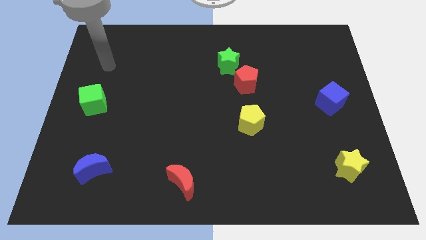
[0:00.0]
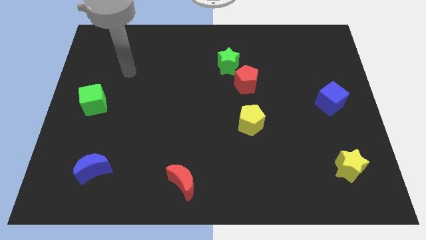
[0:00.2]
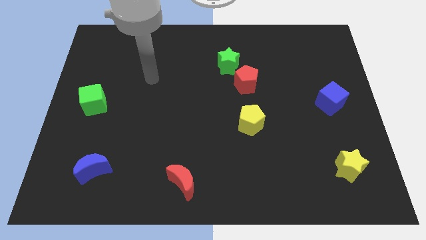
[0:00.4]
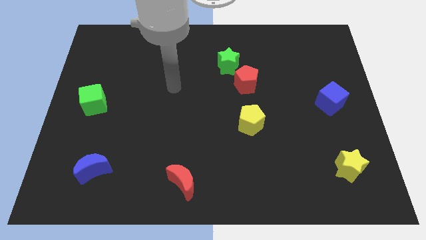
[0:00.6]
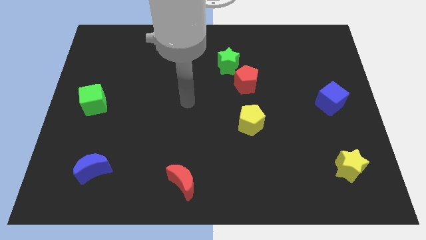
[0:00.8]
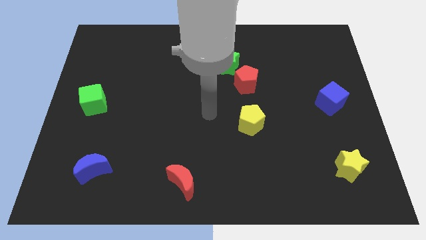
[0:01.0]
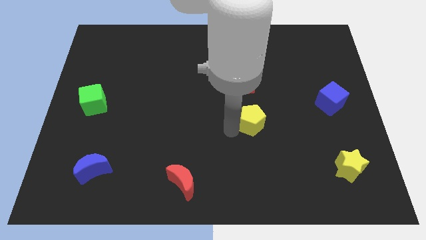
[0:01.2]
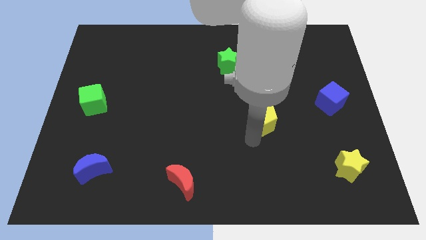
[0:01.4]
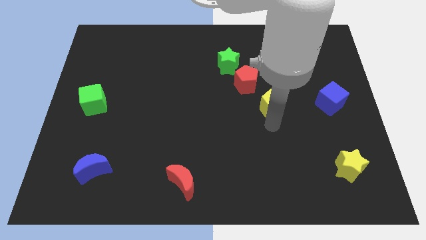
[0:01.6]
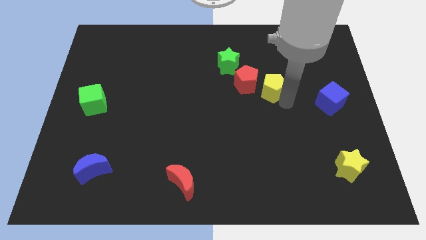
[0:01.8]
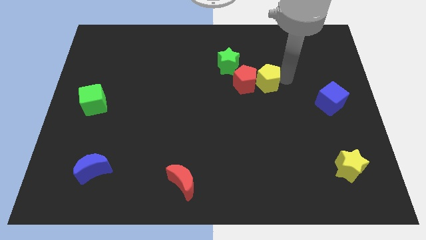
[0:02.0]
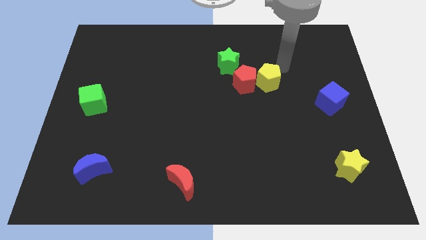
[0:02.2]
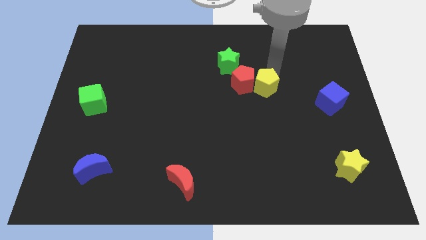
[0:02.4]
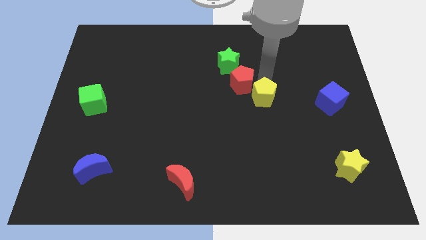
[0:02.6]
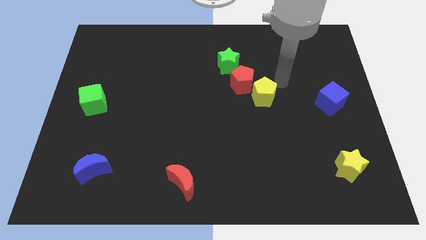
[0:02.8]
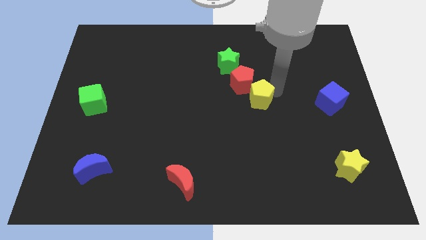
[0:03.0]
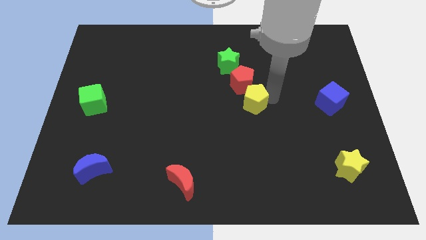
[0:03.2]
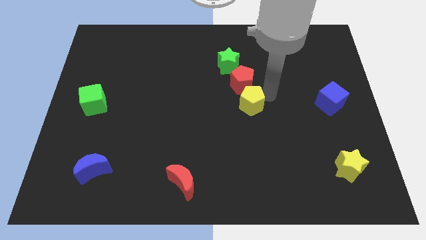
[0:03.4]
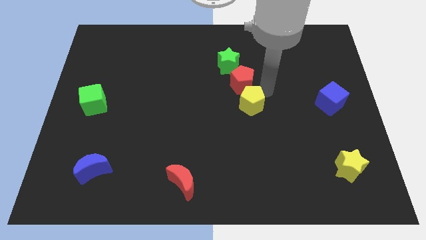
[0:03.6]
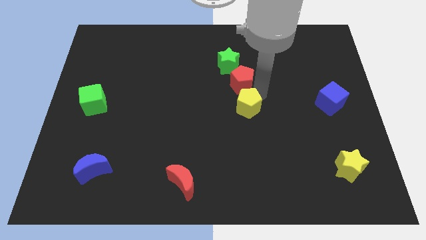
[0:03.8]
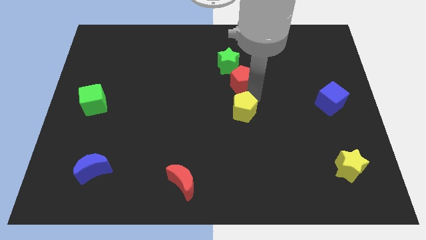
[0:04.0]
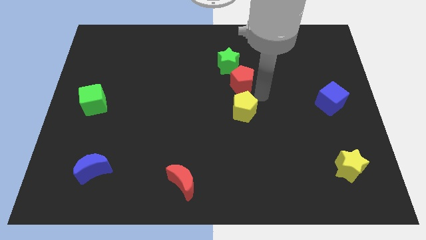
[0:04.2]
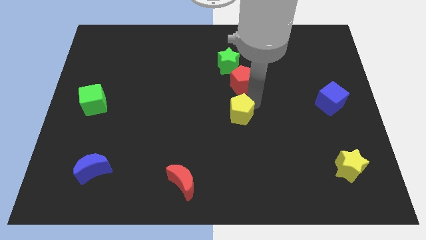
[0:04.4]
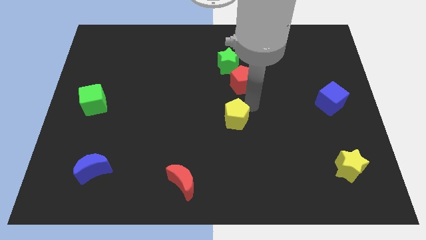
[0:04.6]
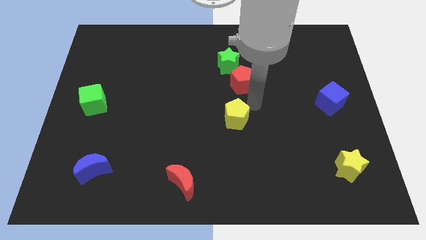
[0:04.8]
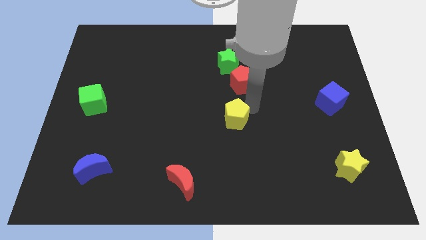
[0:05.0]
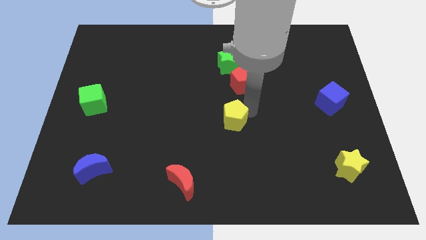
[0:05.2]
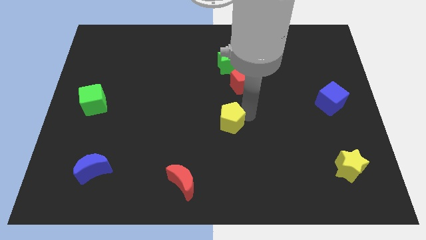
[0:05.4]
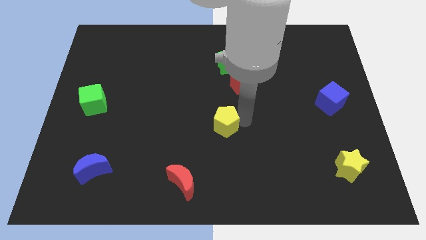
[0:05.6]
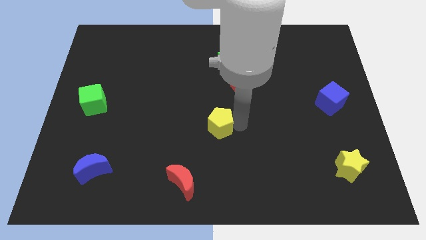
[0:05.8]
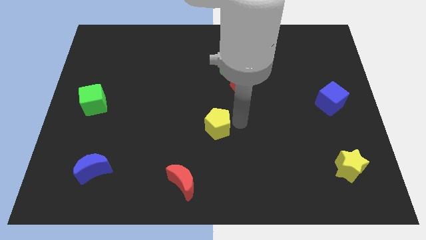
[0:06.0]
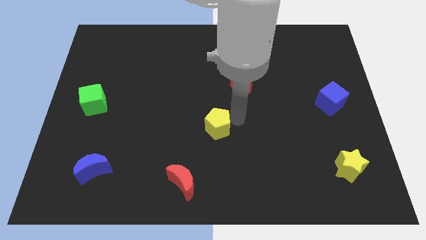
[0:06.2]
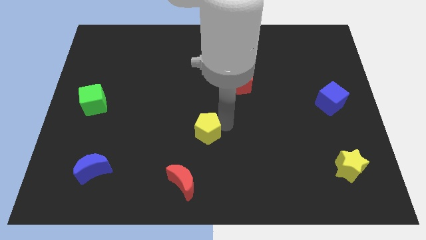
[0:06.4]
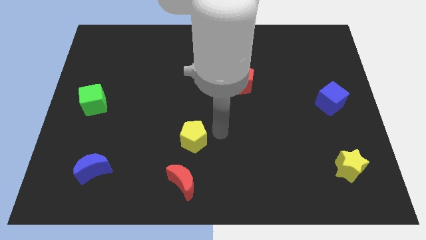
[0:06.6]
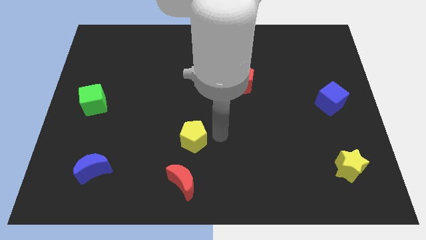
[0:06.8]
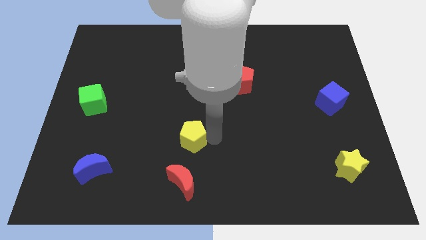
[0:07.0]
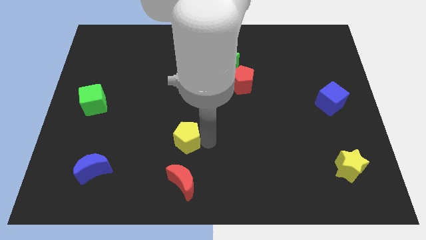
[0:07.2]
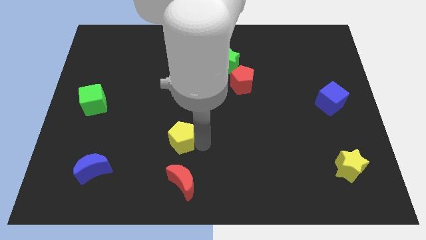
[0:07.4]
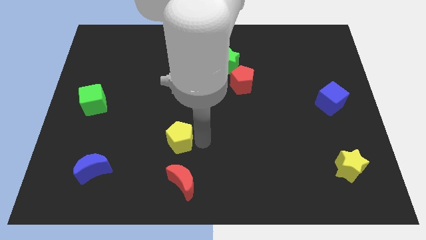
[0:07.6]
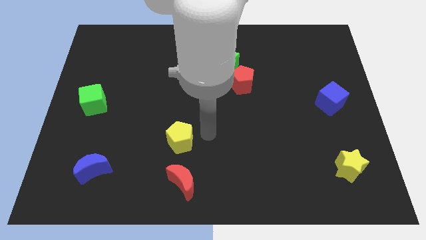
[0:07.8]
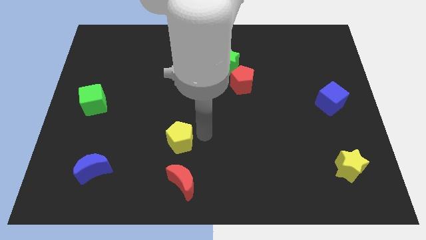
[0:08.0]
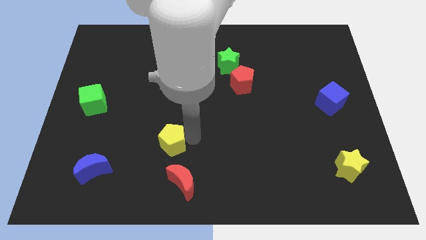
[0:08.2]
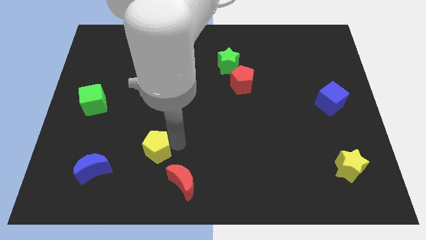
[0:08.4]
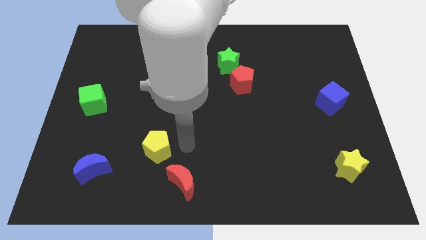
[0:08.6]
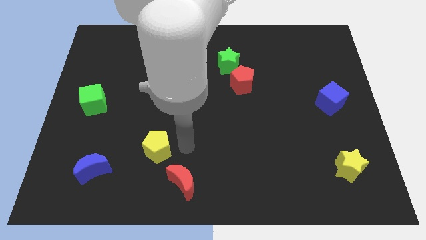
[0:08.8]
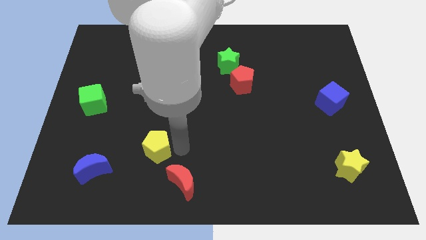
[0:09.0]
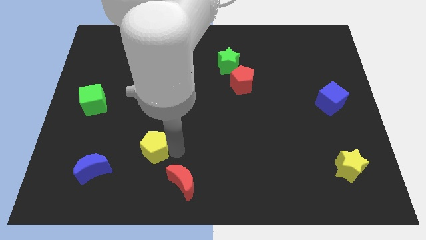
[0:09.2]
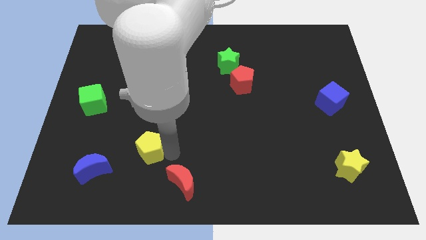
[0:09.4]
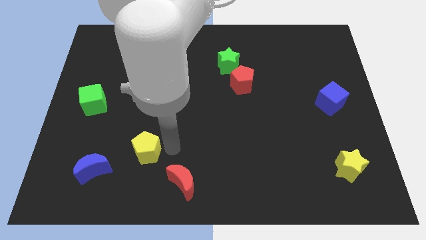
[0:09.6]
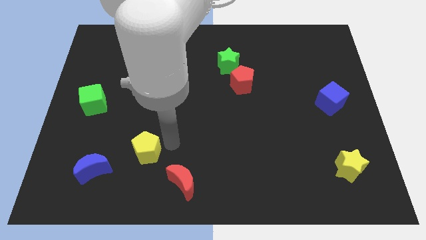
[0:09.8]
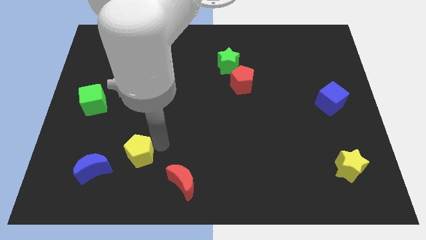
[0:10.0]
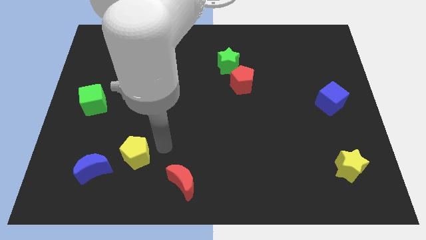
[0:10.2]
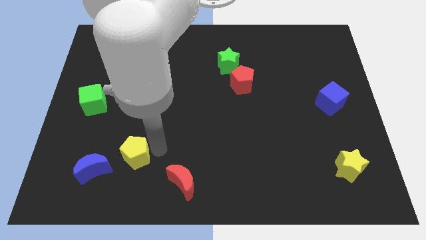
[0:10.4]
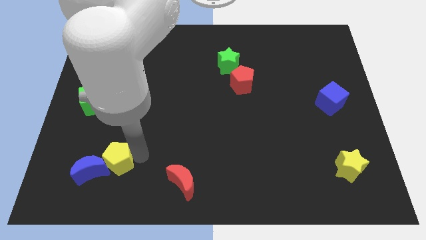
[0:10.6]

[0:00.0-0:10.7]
push the yellow pentagon to the blue moon
